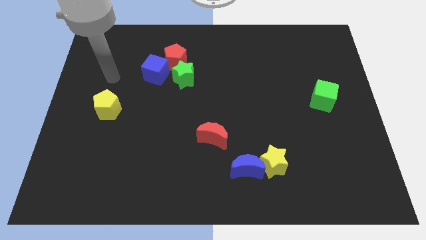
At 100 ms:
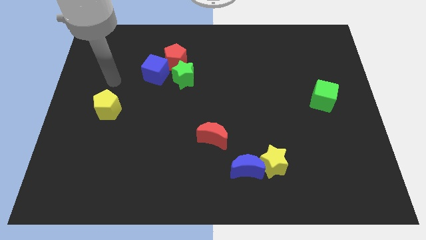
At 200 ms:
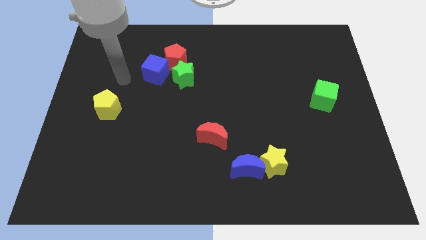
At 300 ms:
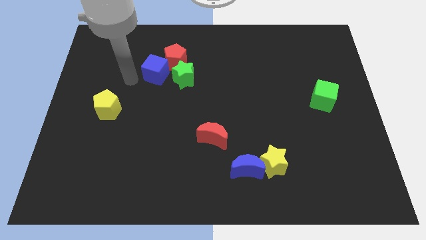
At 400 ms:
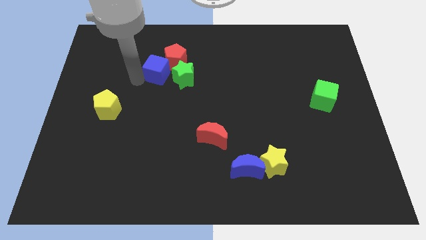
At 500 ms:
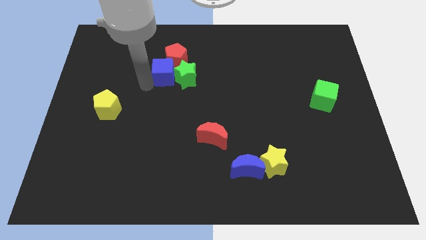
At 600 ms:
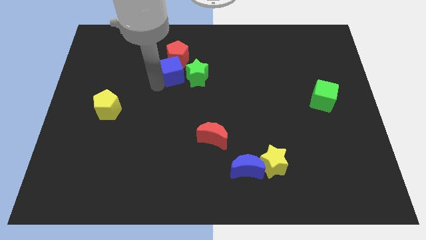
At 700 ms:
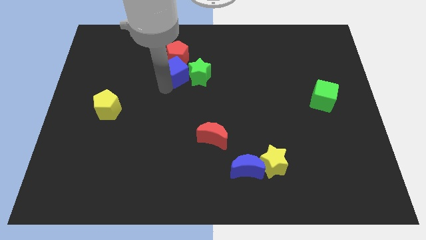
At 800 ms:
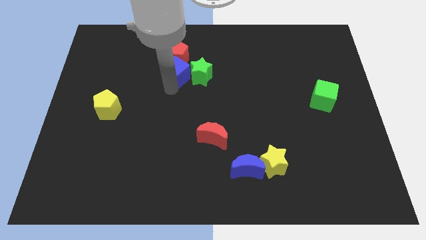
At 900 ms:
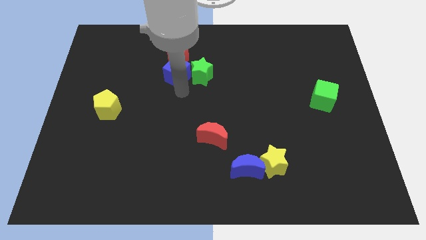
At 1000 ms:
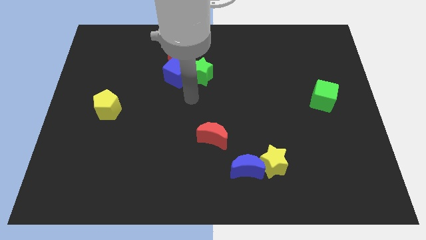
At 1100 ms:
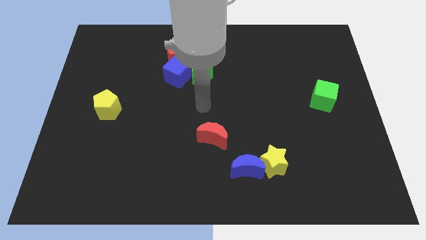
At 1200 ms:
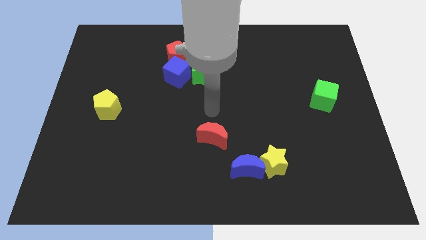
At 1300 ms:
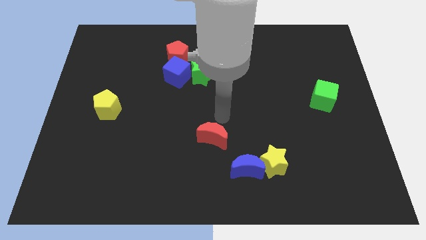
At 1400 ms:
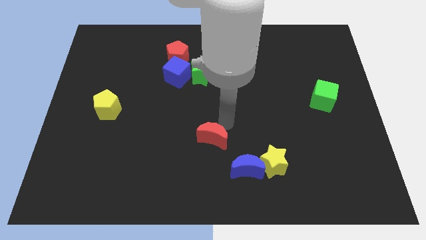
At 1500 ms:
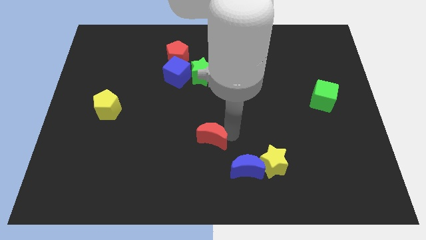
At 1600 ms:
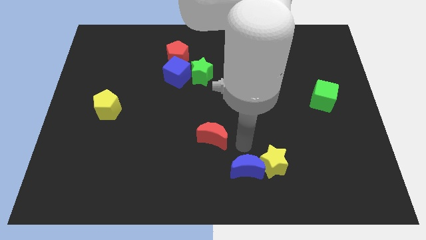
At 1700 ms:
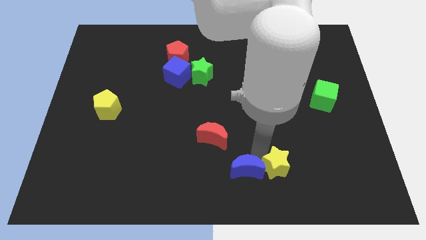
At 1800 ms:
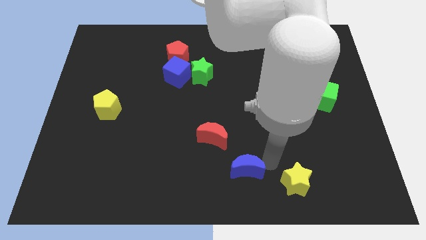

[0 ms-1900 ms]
move the blue moon away from the yellow star

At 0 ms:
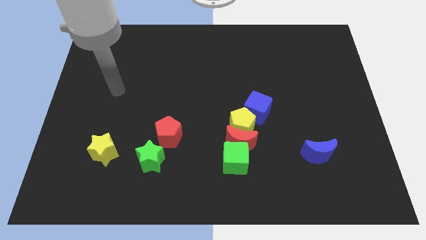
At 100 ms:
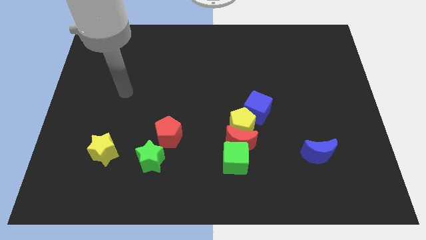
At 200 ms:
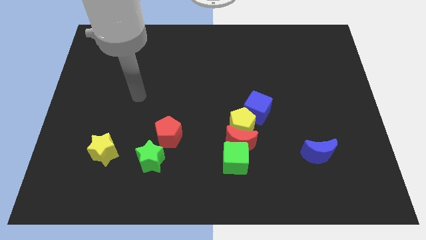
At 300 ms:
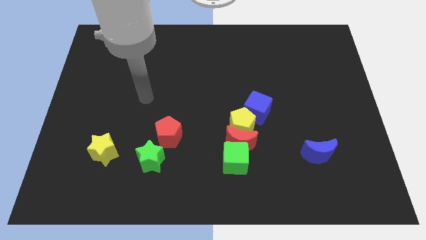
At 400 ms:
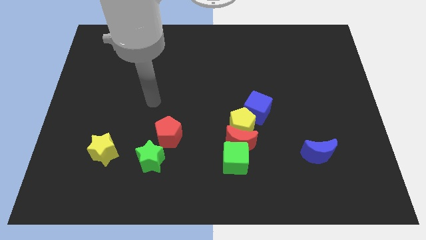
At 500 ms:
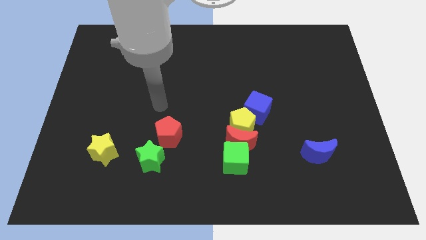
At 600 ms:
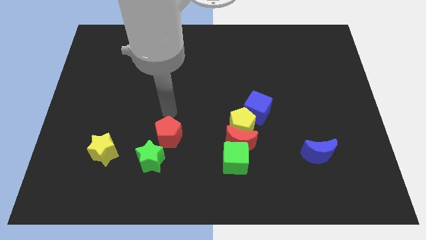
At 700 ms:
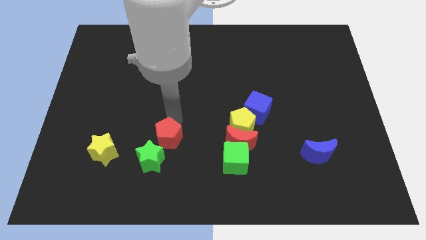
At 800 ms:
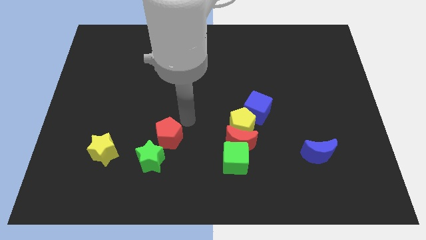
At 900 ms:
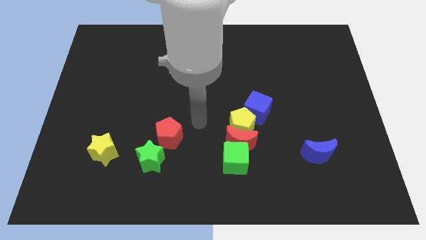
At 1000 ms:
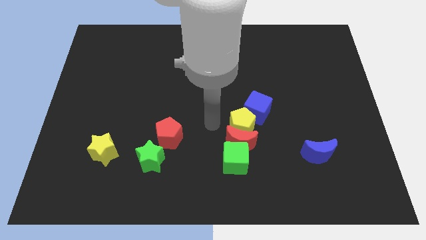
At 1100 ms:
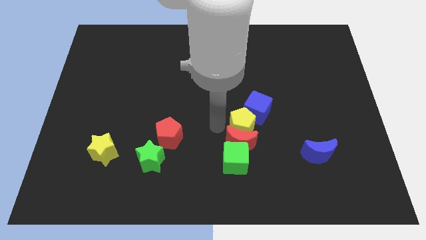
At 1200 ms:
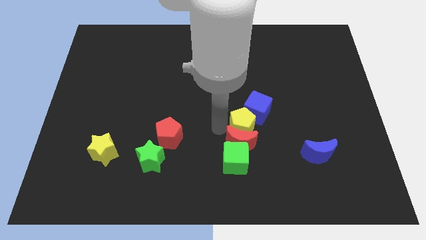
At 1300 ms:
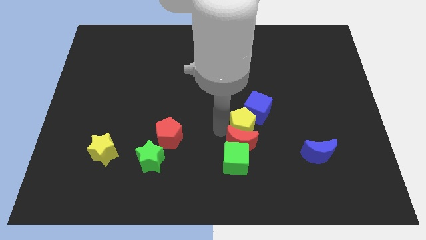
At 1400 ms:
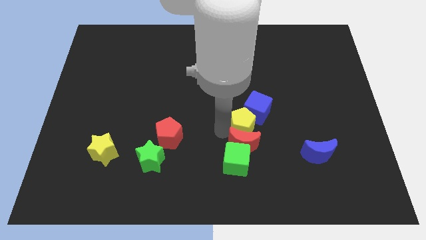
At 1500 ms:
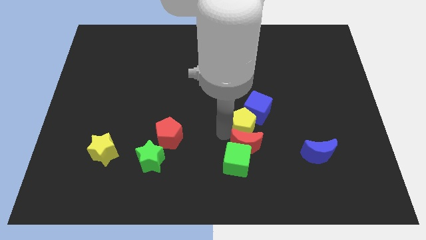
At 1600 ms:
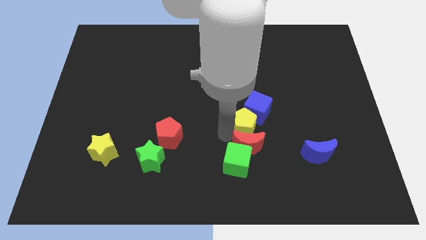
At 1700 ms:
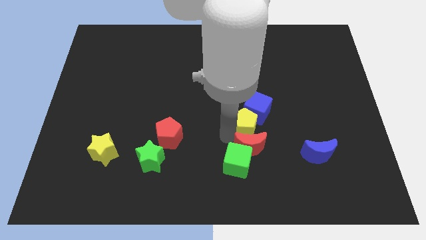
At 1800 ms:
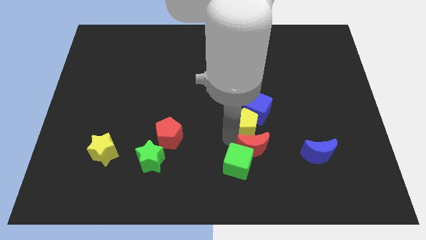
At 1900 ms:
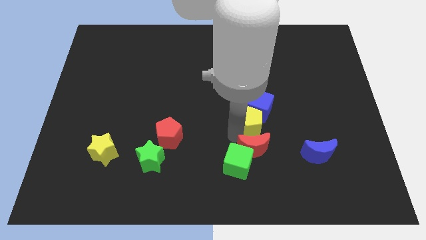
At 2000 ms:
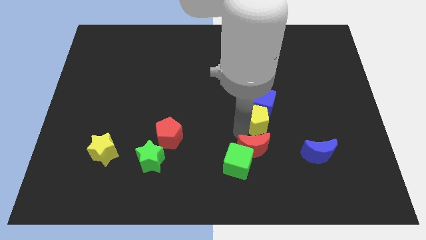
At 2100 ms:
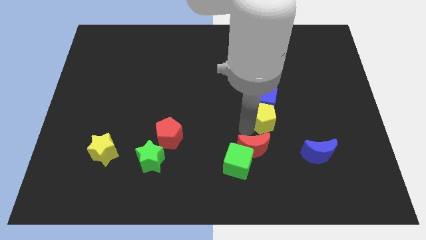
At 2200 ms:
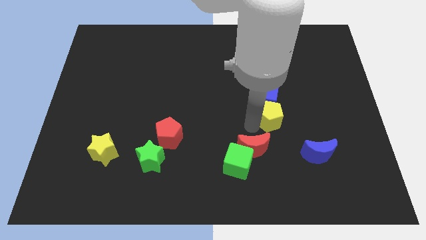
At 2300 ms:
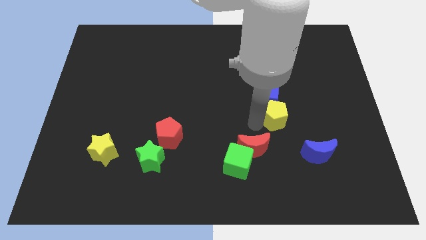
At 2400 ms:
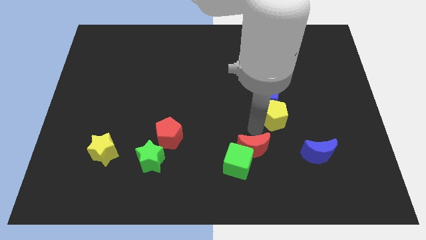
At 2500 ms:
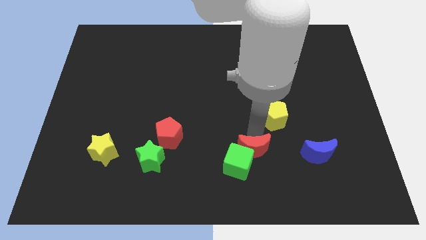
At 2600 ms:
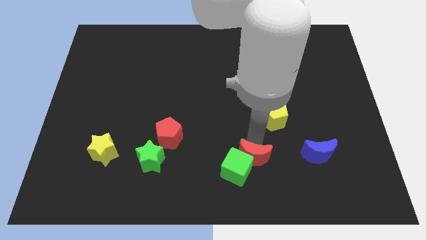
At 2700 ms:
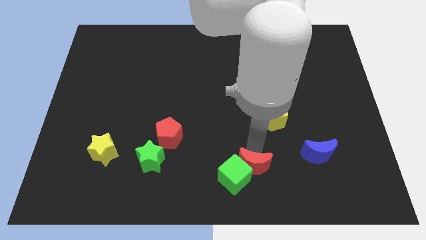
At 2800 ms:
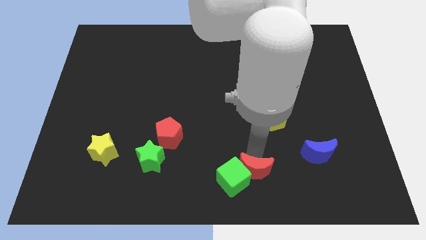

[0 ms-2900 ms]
move the red moon away from the yellow pentagon, green cube, and blue cube

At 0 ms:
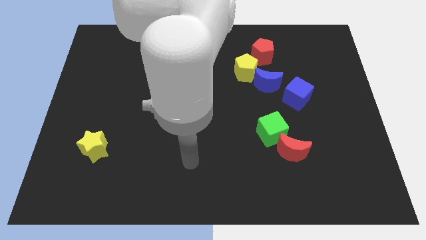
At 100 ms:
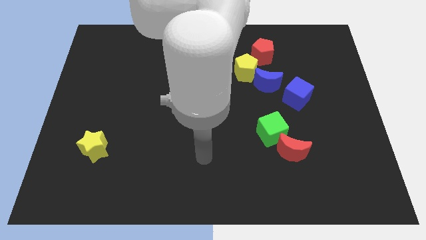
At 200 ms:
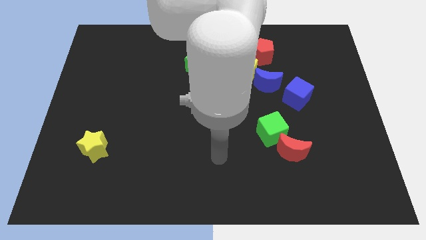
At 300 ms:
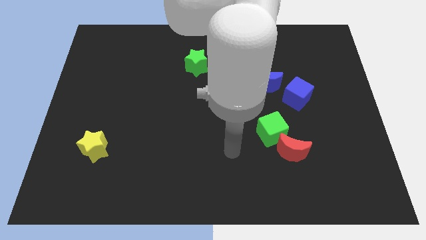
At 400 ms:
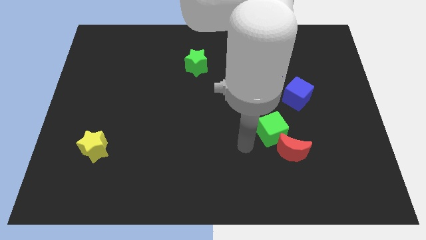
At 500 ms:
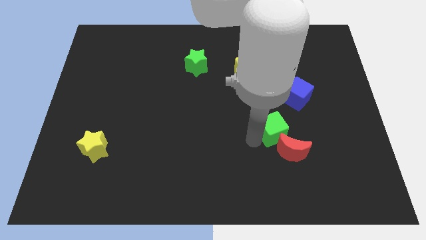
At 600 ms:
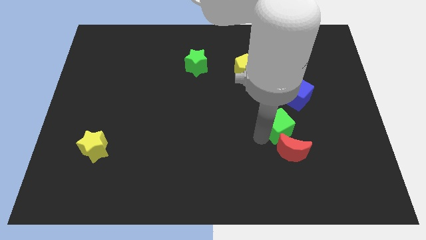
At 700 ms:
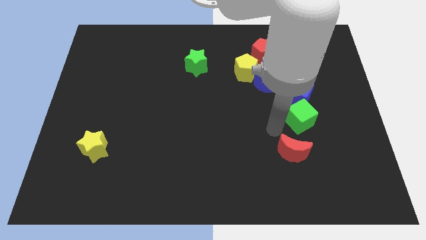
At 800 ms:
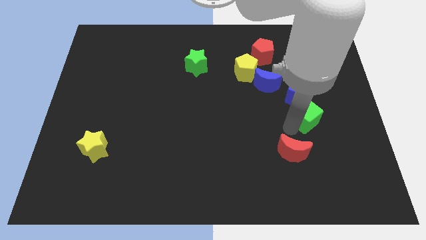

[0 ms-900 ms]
pull the red moon apart from the green cube

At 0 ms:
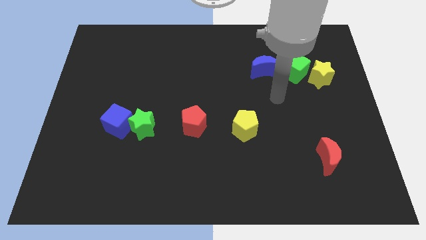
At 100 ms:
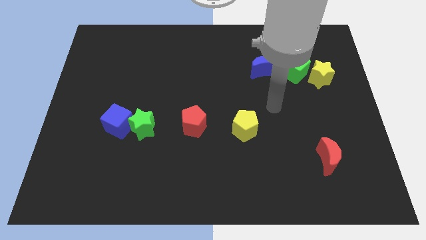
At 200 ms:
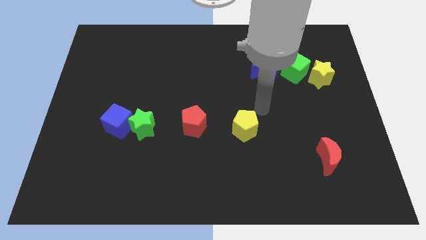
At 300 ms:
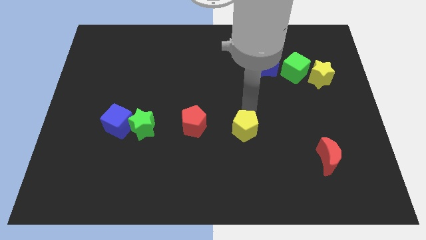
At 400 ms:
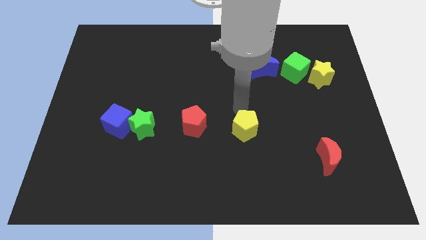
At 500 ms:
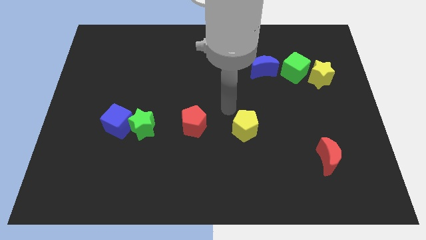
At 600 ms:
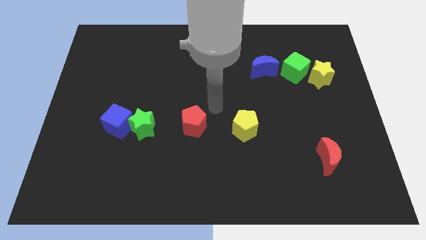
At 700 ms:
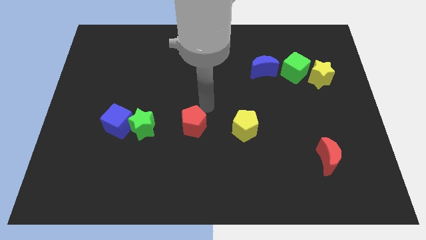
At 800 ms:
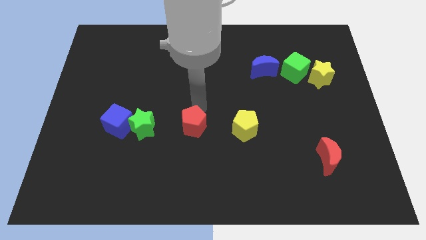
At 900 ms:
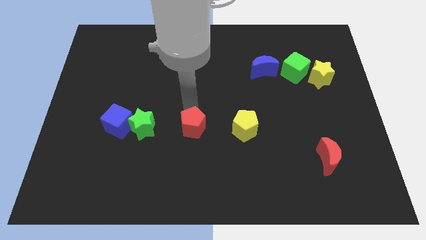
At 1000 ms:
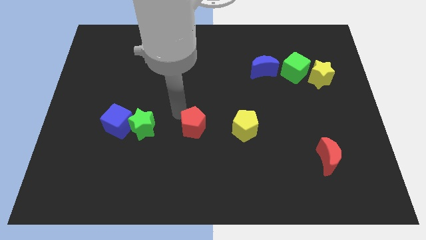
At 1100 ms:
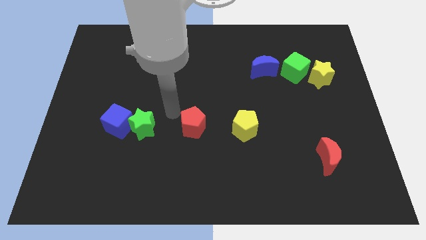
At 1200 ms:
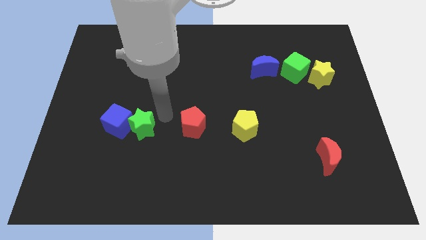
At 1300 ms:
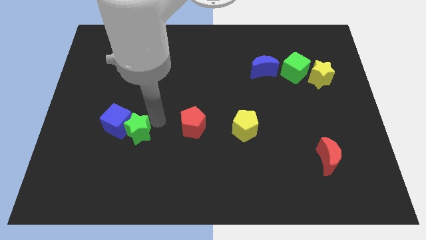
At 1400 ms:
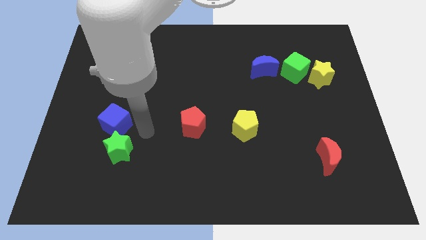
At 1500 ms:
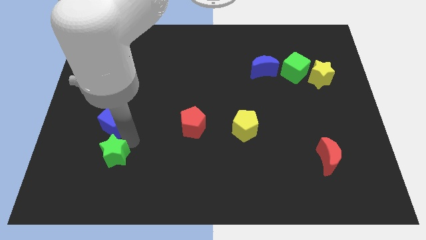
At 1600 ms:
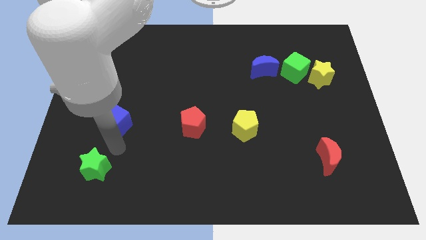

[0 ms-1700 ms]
move the blue cube away from the green star

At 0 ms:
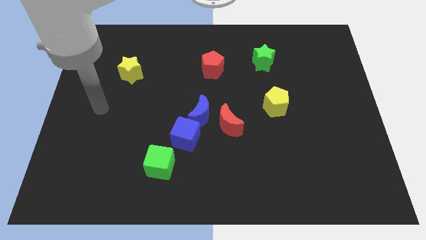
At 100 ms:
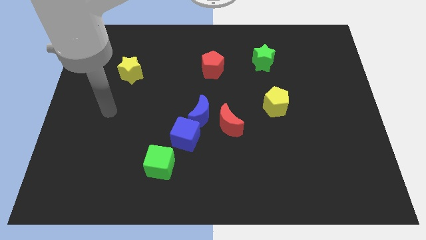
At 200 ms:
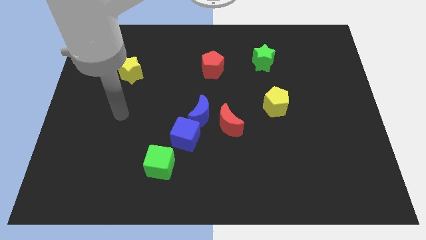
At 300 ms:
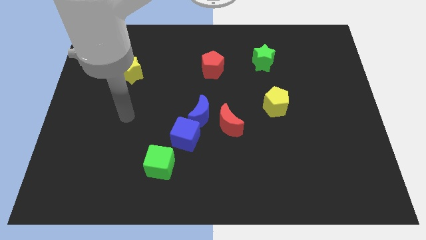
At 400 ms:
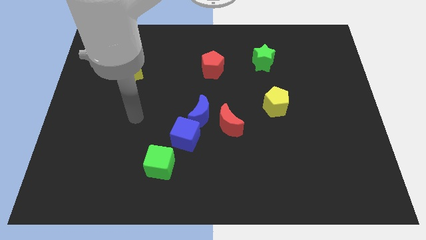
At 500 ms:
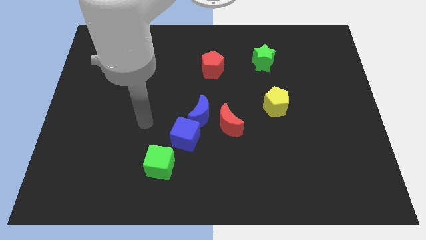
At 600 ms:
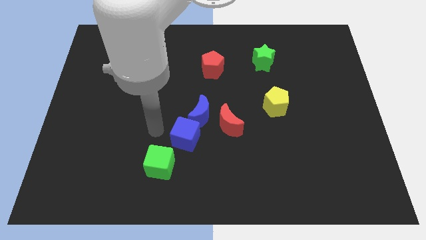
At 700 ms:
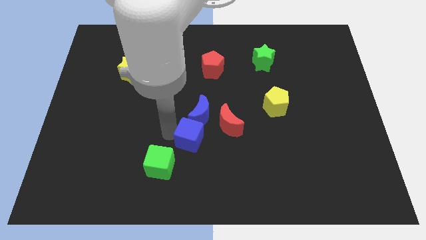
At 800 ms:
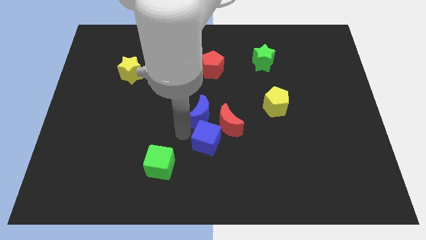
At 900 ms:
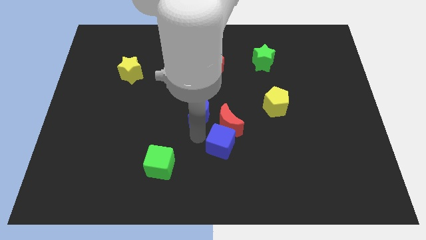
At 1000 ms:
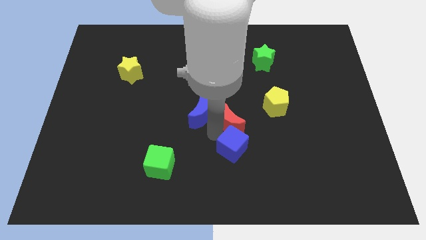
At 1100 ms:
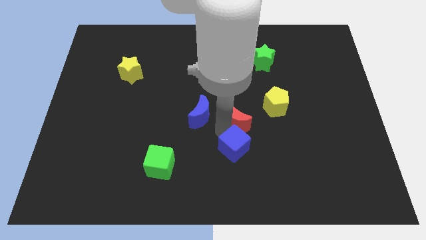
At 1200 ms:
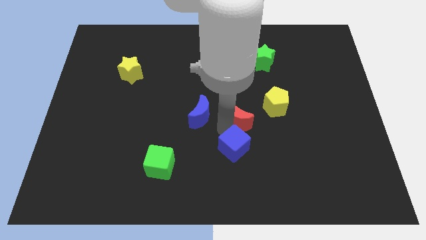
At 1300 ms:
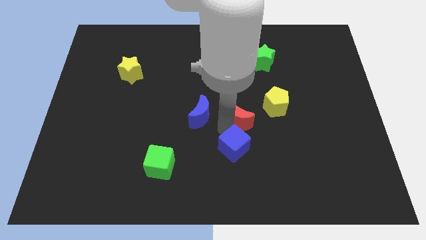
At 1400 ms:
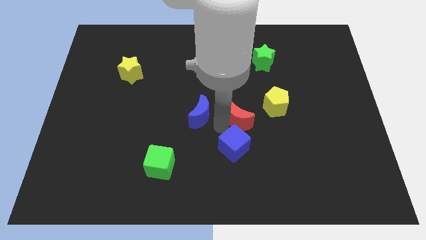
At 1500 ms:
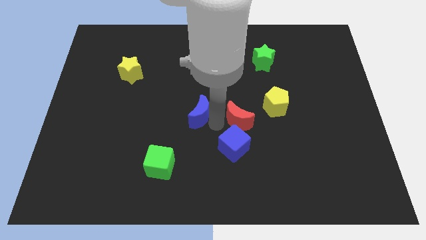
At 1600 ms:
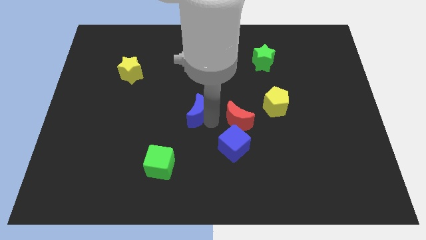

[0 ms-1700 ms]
pull the blue moon apart from the blue cube and red moon

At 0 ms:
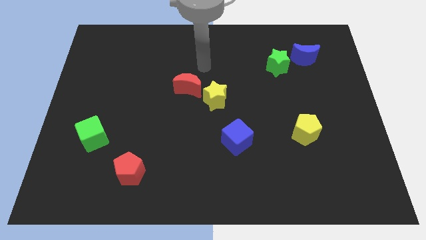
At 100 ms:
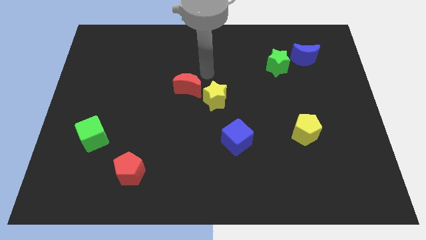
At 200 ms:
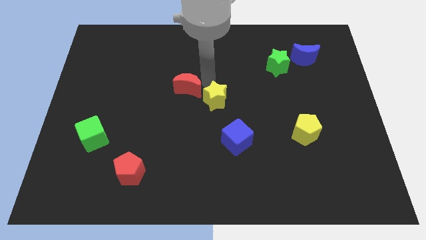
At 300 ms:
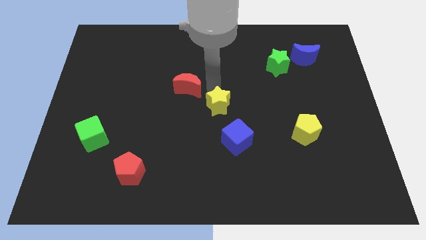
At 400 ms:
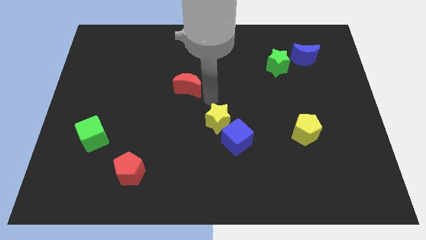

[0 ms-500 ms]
pull the red moon apart from the yellow star
